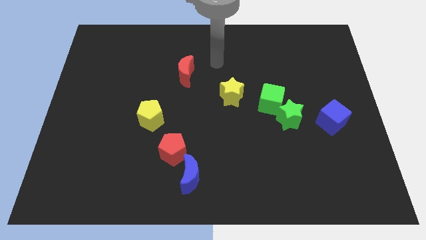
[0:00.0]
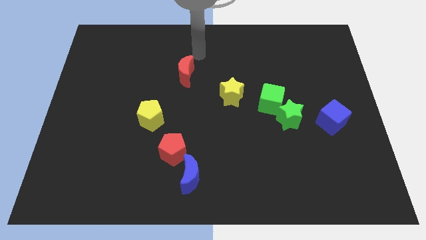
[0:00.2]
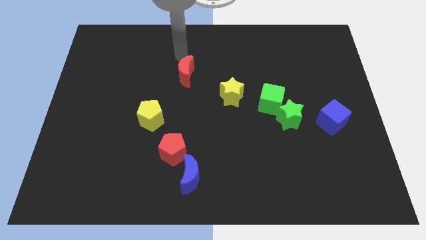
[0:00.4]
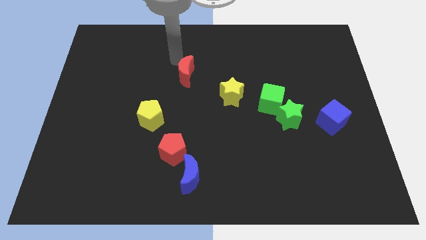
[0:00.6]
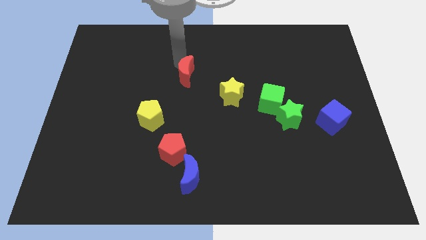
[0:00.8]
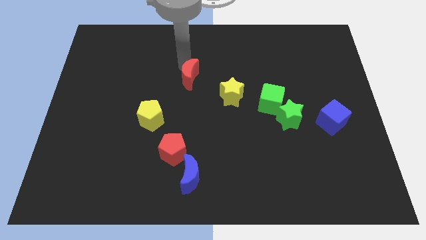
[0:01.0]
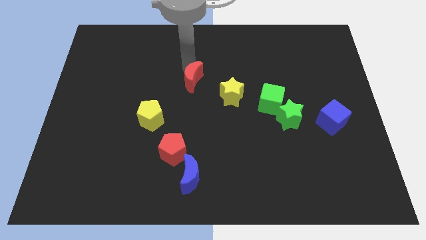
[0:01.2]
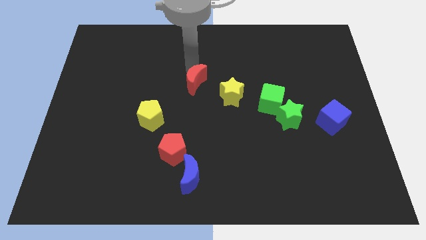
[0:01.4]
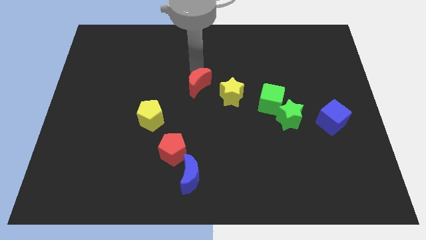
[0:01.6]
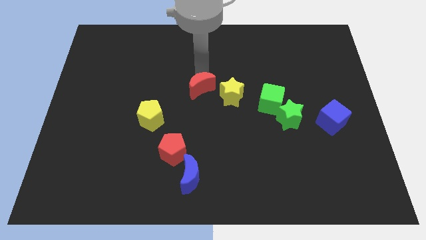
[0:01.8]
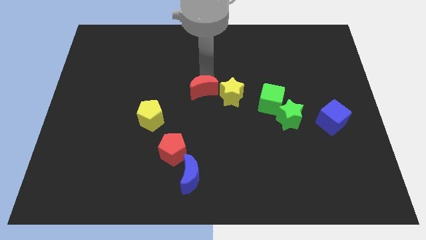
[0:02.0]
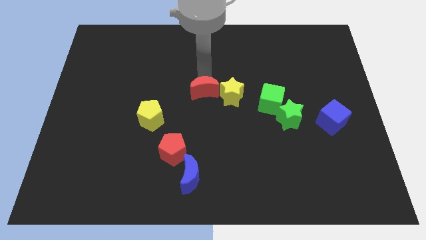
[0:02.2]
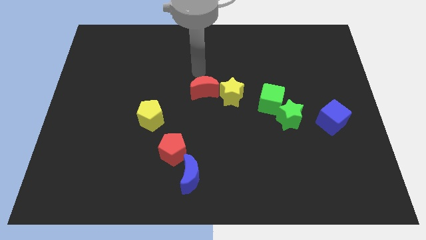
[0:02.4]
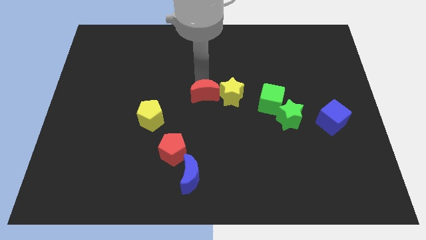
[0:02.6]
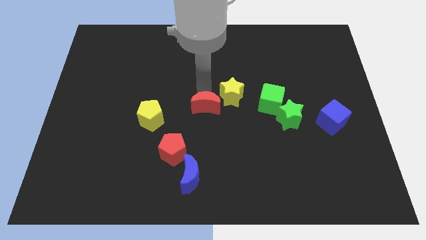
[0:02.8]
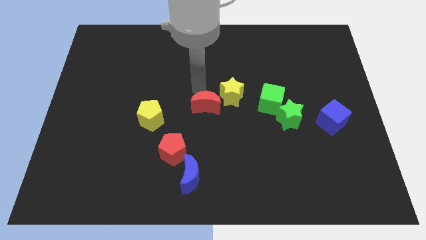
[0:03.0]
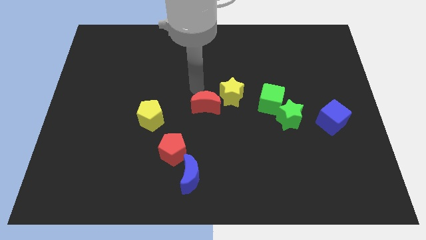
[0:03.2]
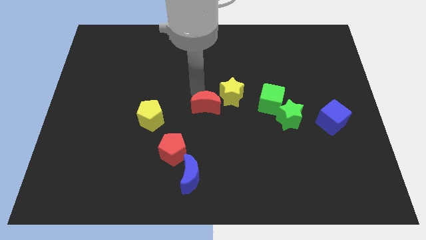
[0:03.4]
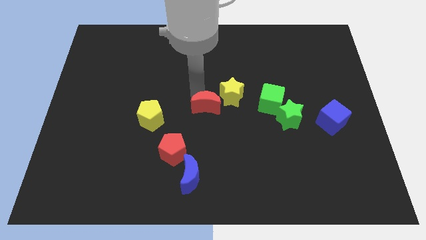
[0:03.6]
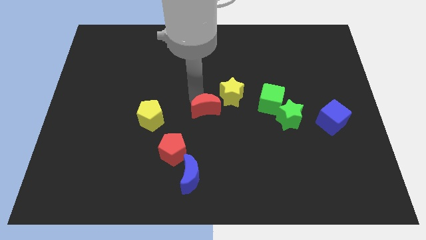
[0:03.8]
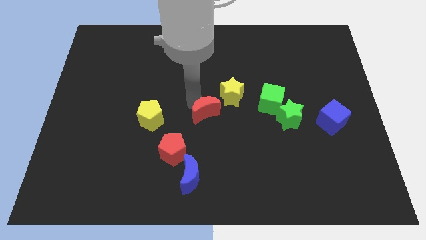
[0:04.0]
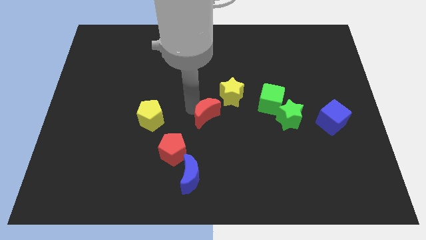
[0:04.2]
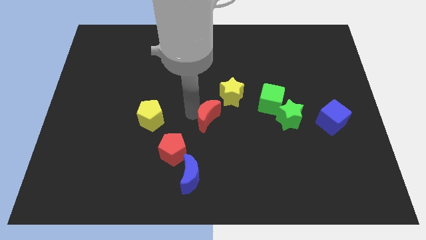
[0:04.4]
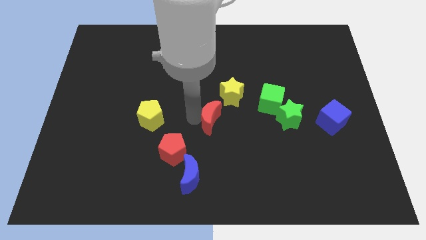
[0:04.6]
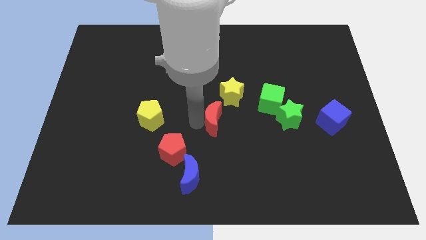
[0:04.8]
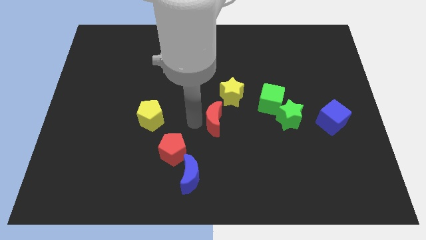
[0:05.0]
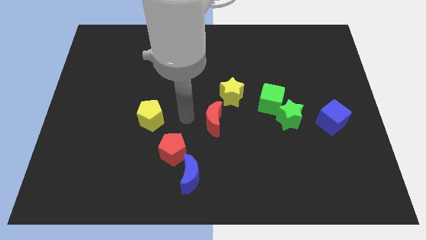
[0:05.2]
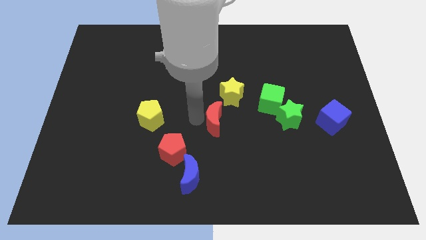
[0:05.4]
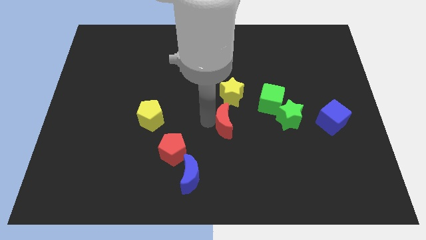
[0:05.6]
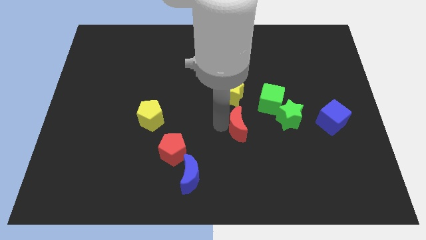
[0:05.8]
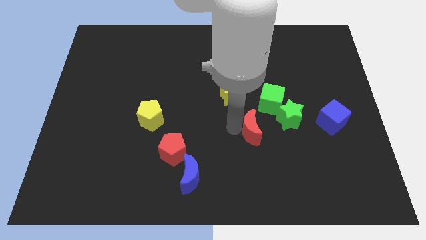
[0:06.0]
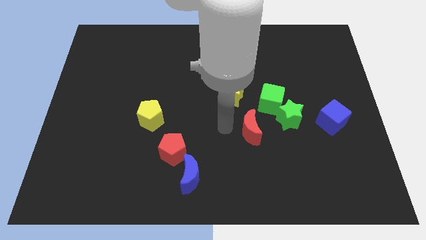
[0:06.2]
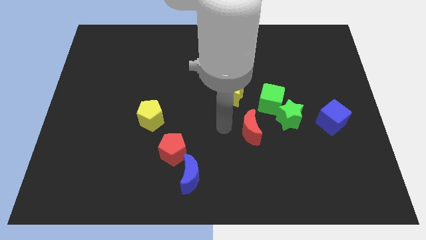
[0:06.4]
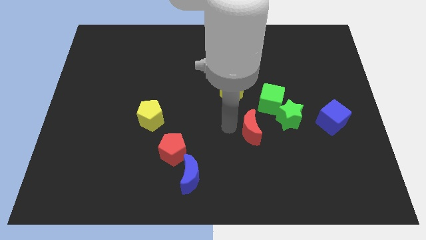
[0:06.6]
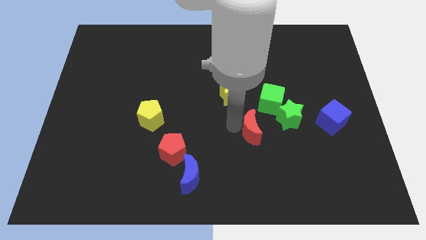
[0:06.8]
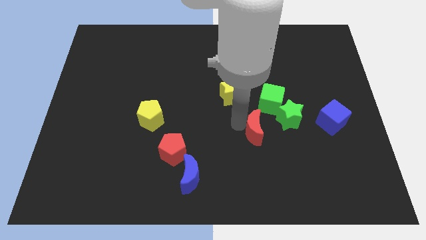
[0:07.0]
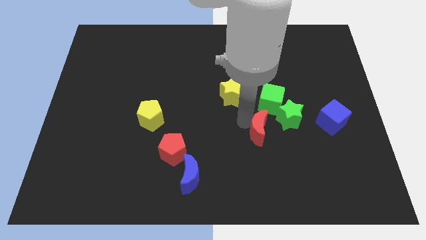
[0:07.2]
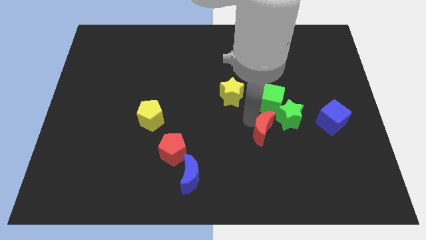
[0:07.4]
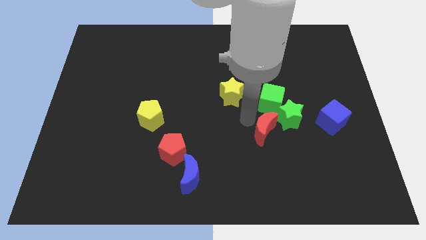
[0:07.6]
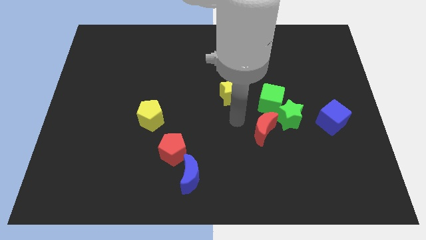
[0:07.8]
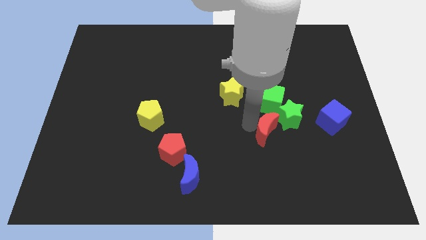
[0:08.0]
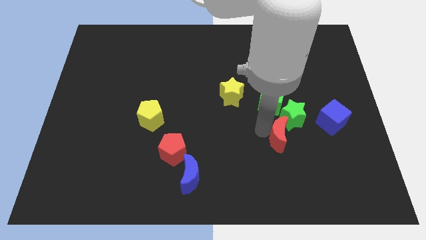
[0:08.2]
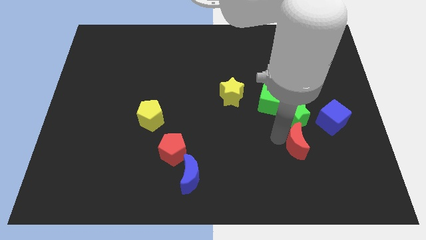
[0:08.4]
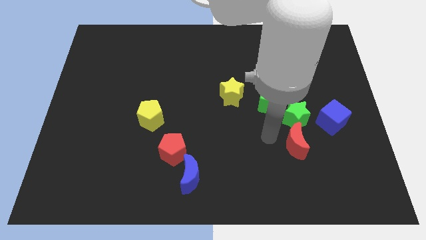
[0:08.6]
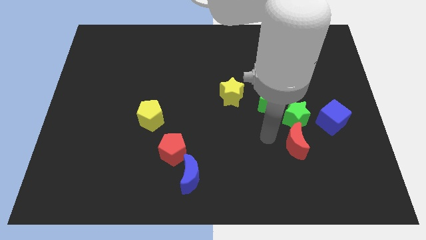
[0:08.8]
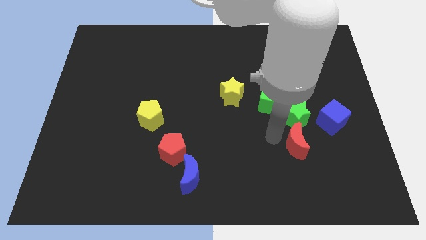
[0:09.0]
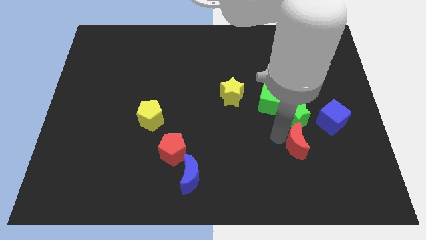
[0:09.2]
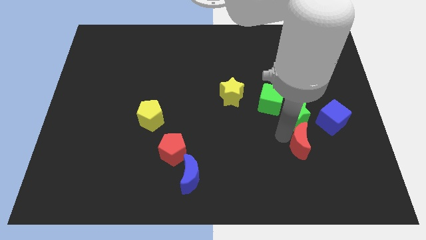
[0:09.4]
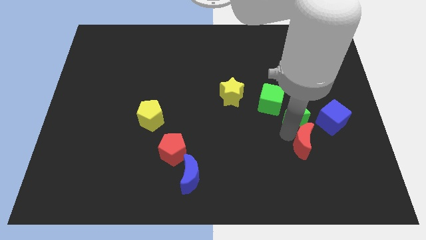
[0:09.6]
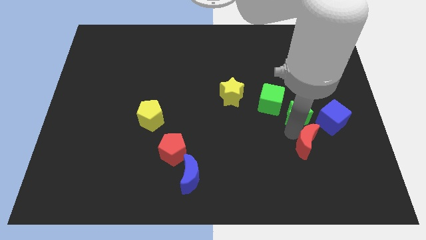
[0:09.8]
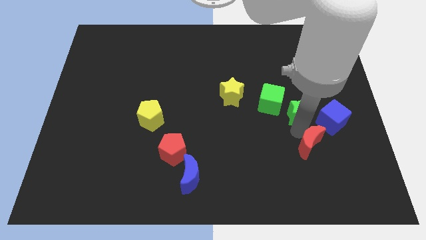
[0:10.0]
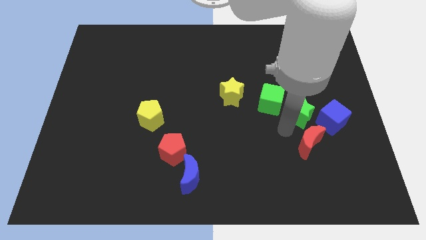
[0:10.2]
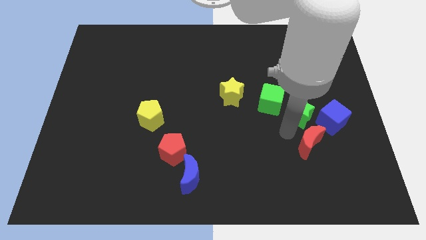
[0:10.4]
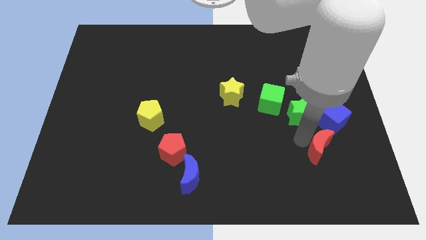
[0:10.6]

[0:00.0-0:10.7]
push the red moon to the bottom of the blue cube

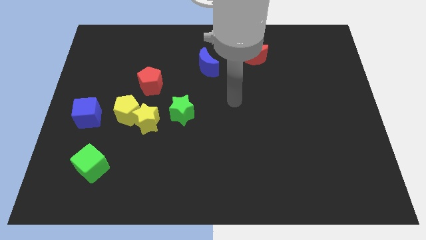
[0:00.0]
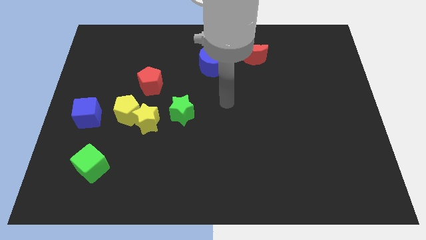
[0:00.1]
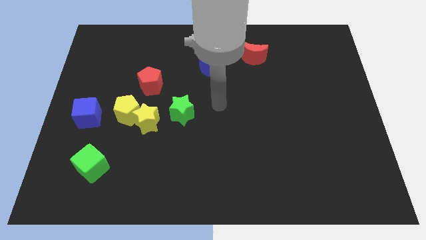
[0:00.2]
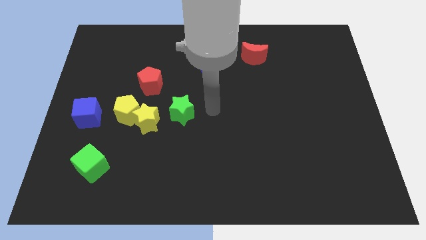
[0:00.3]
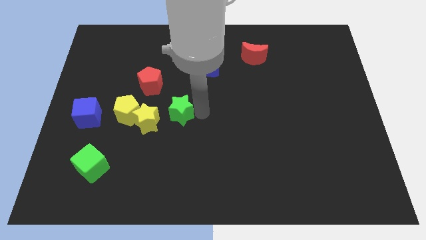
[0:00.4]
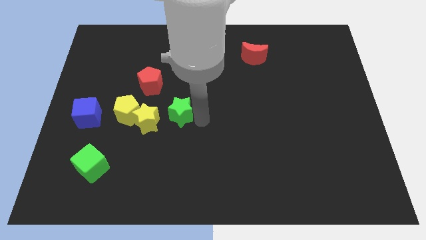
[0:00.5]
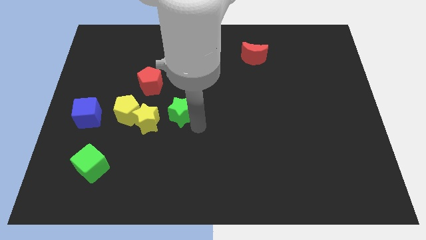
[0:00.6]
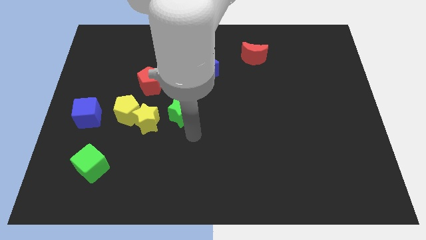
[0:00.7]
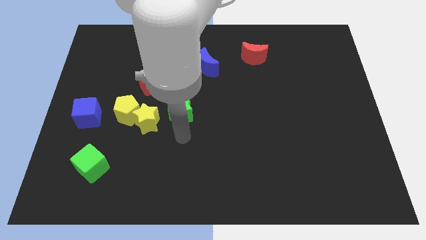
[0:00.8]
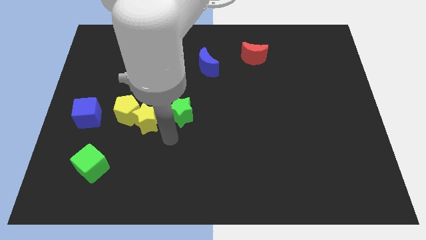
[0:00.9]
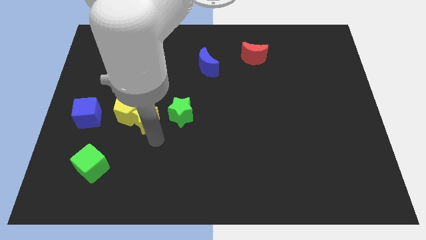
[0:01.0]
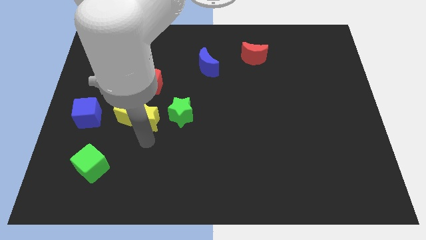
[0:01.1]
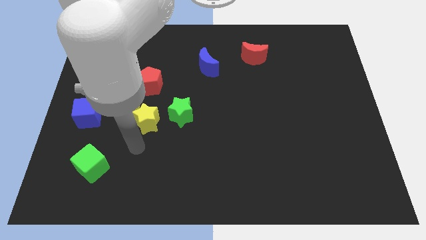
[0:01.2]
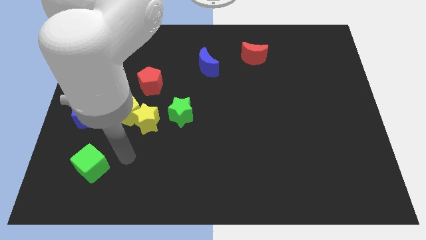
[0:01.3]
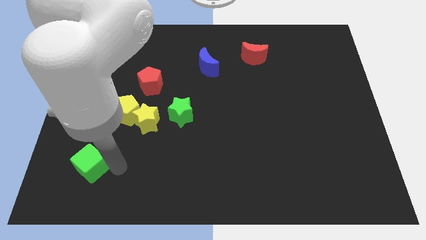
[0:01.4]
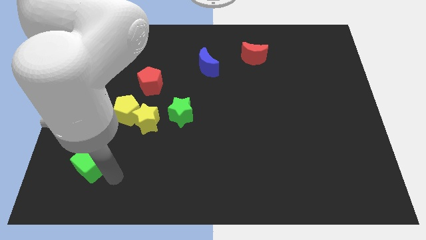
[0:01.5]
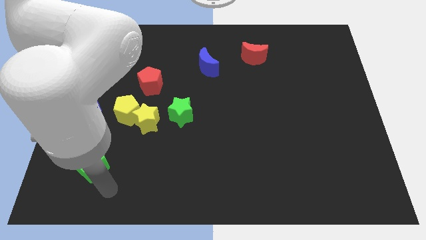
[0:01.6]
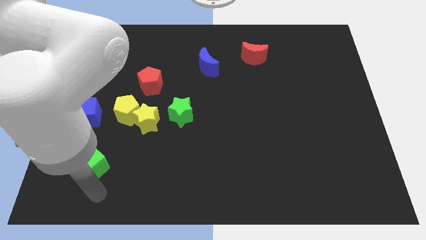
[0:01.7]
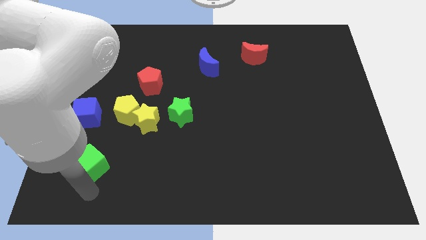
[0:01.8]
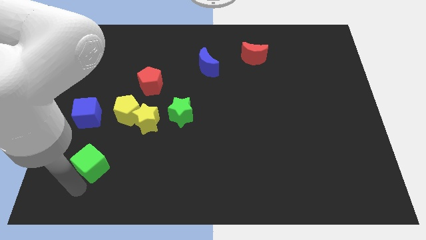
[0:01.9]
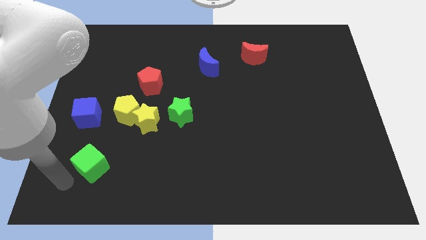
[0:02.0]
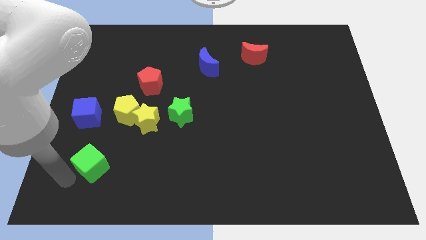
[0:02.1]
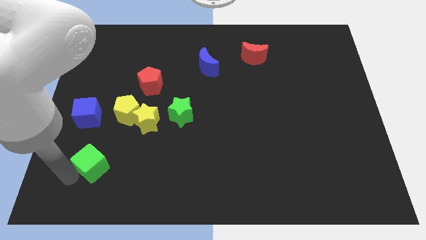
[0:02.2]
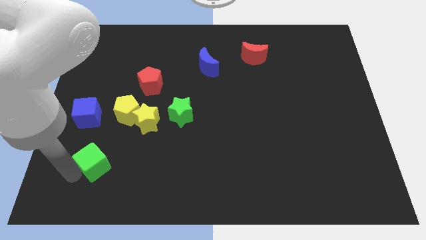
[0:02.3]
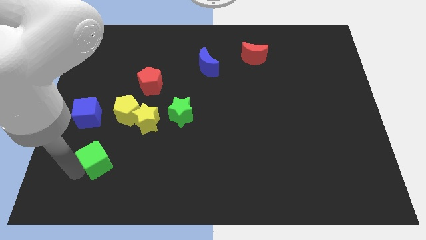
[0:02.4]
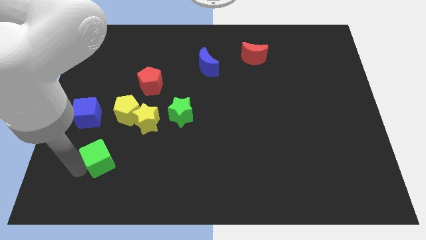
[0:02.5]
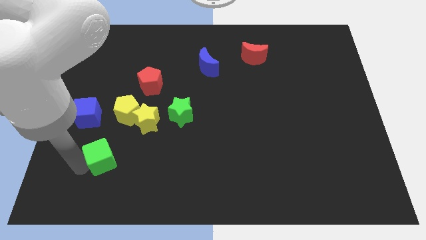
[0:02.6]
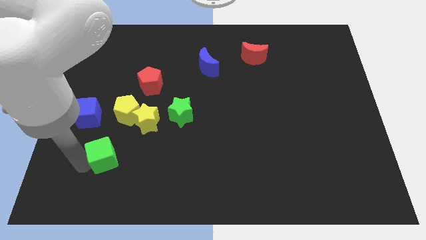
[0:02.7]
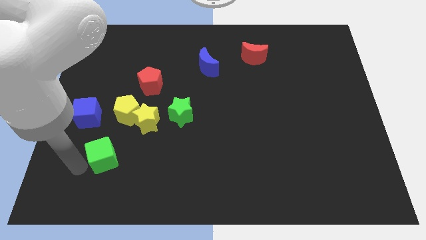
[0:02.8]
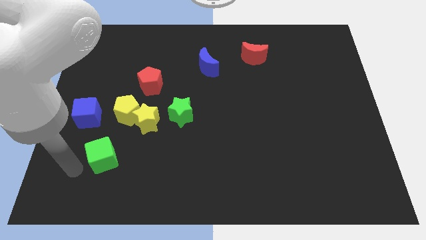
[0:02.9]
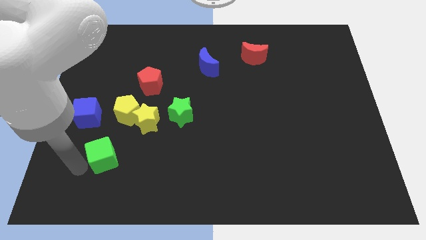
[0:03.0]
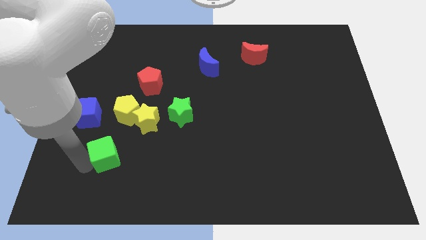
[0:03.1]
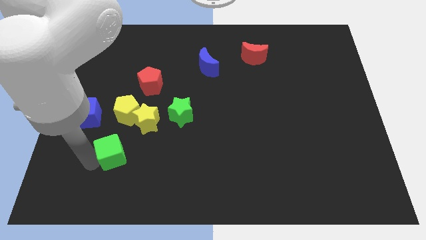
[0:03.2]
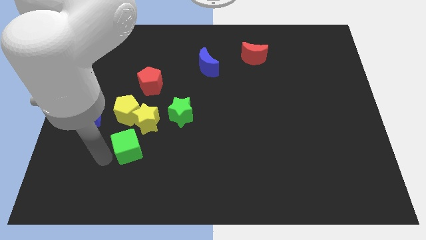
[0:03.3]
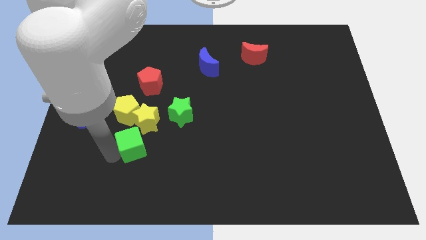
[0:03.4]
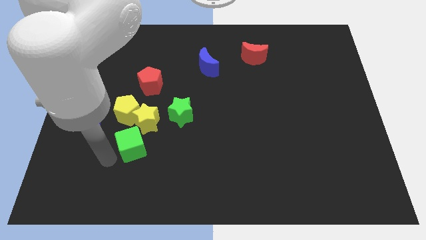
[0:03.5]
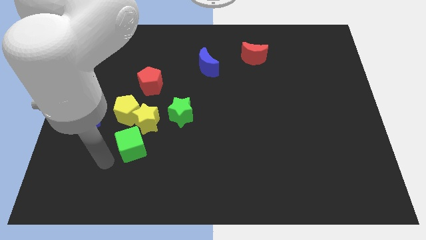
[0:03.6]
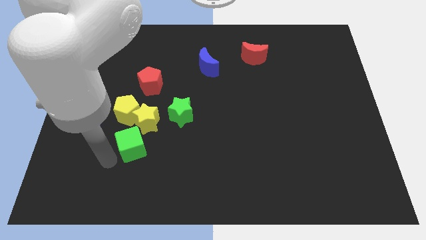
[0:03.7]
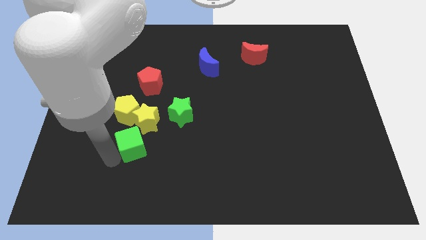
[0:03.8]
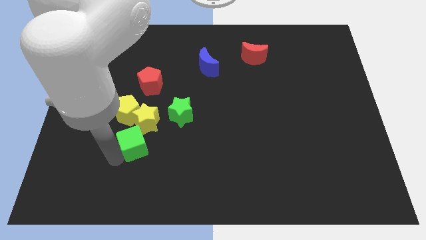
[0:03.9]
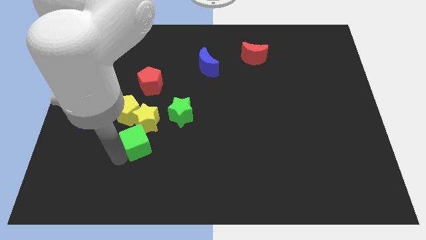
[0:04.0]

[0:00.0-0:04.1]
move the green cube diagonally down and to the left of the green star
